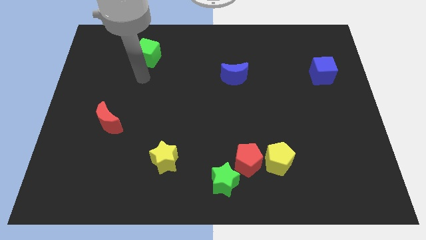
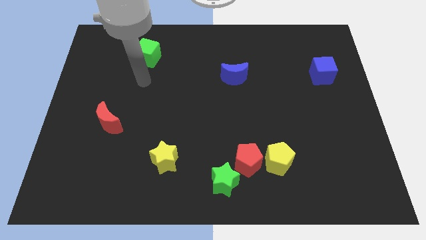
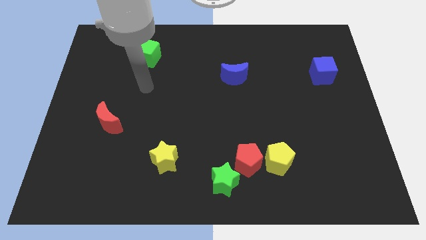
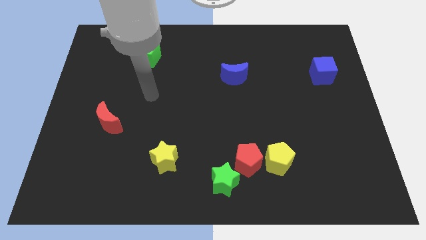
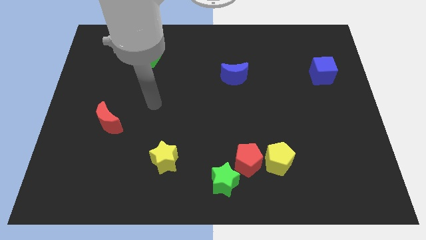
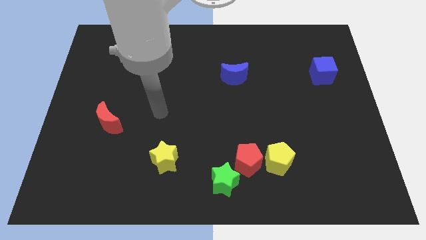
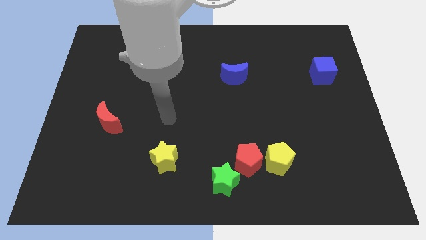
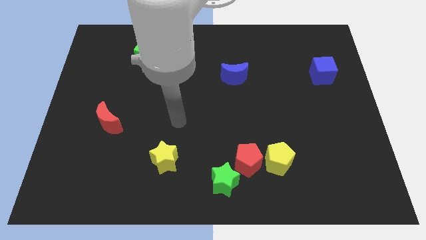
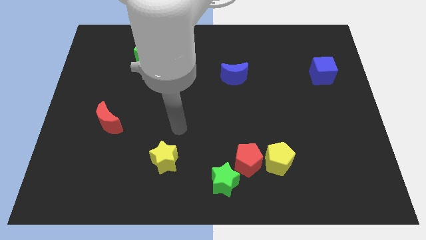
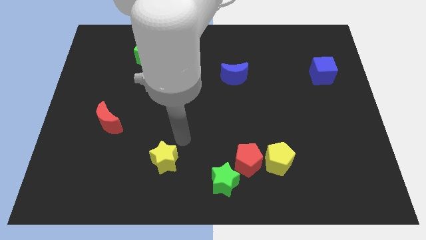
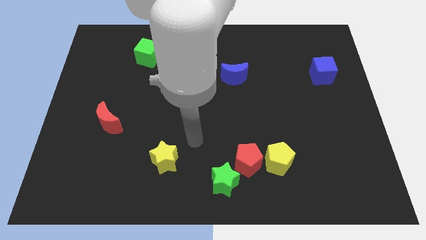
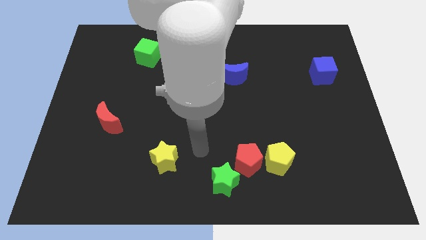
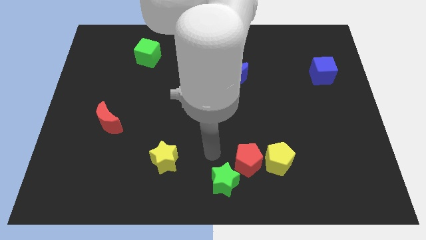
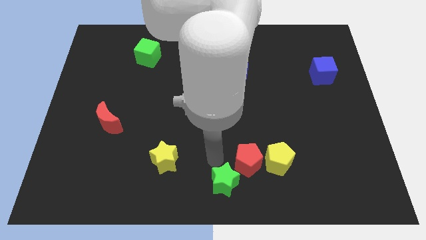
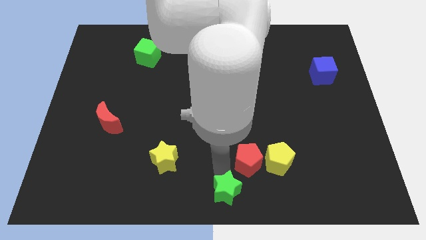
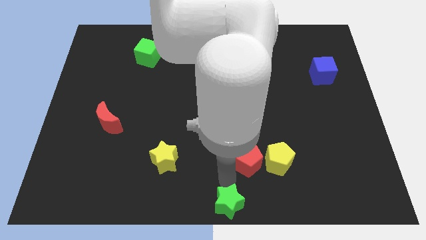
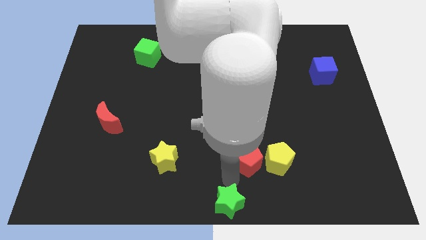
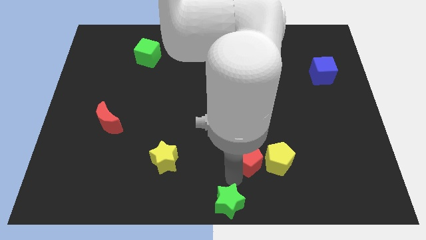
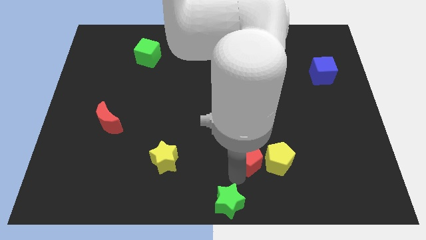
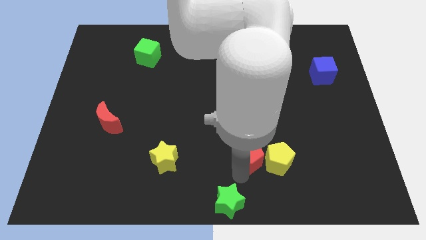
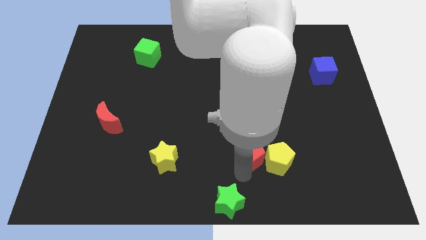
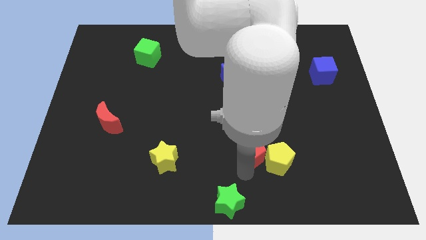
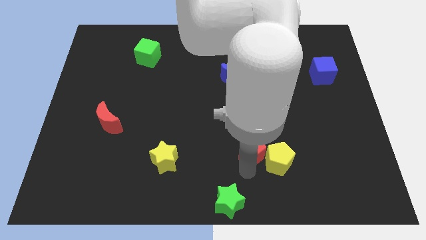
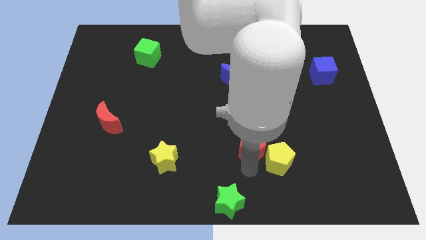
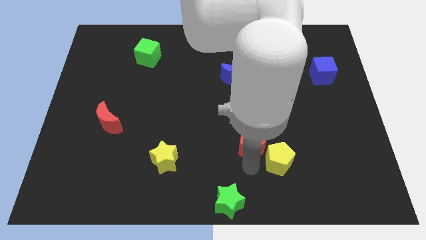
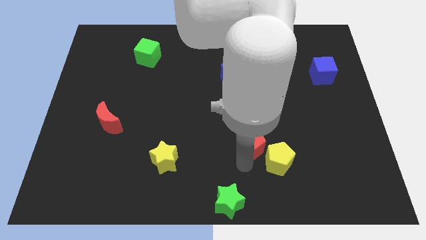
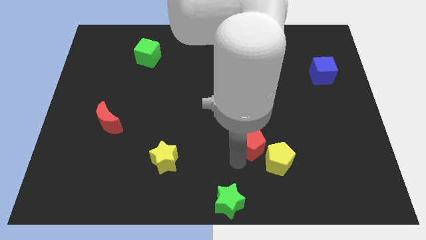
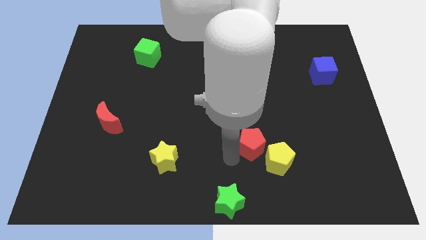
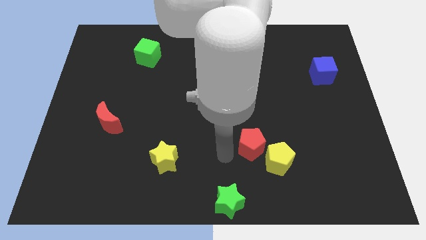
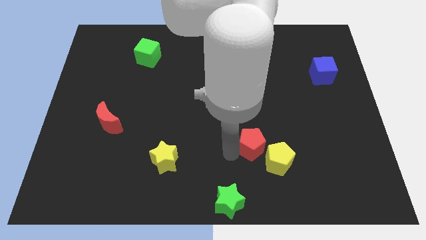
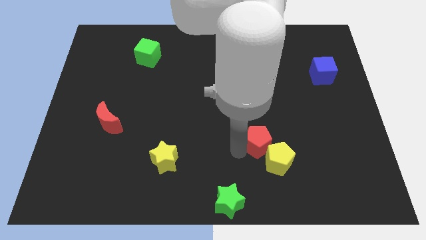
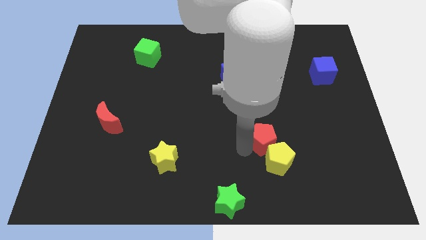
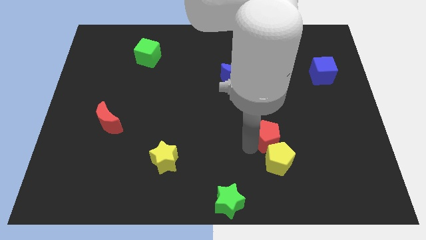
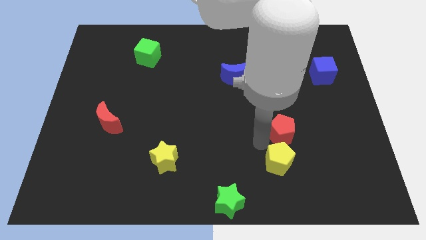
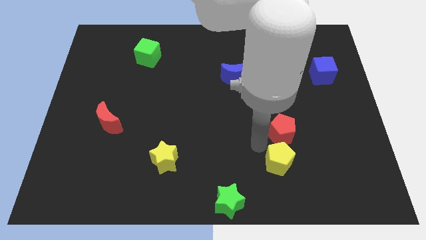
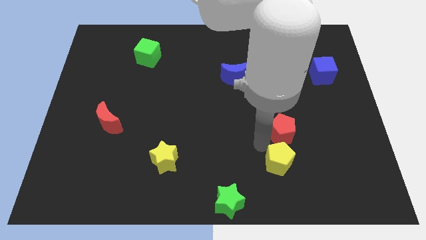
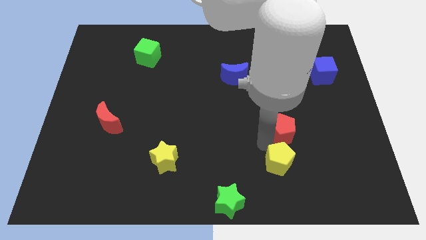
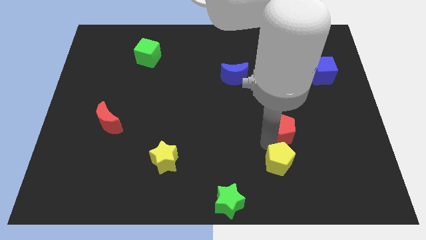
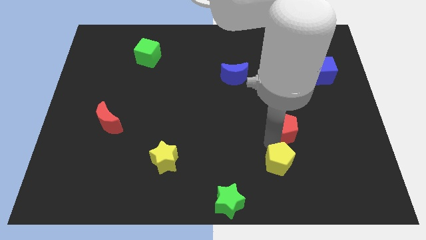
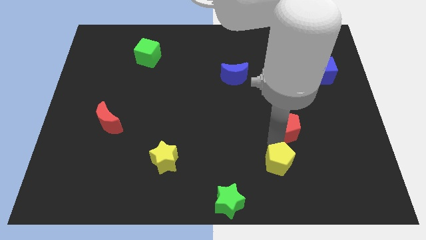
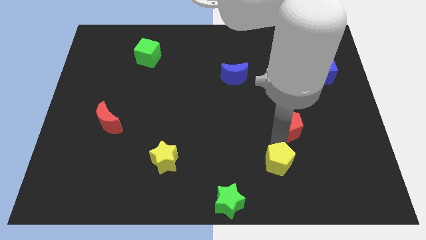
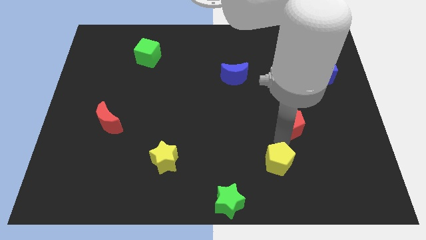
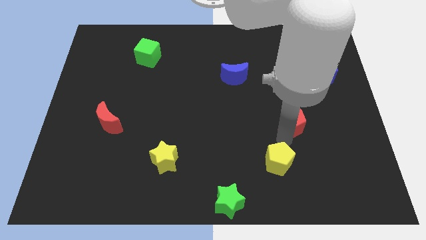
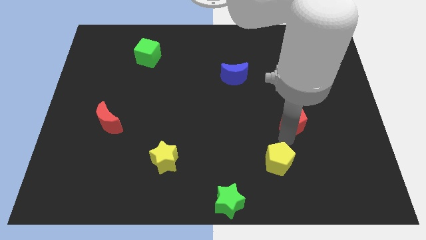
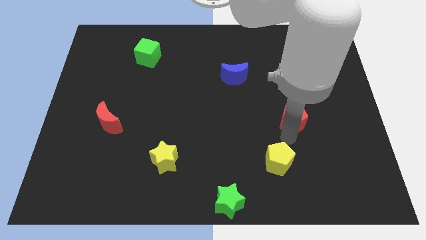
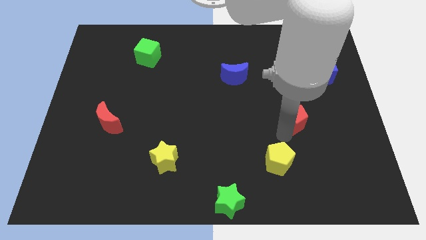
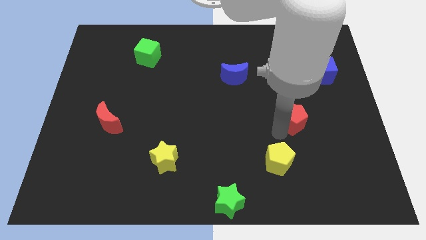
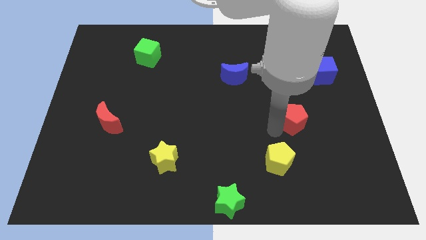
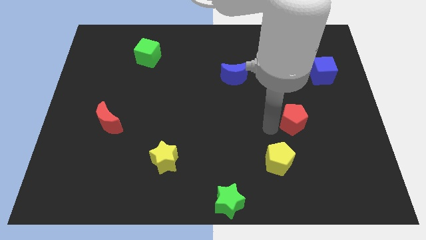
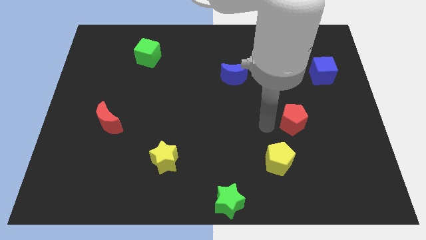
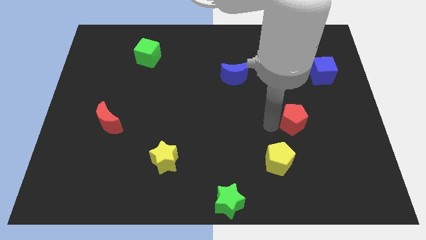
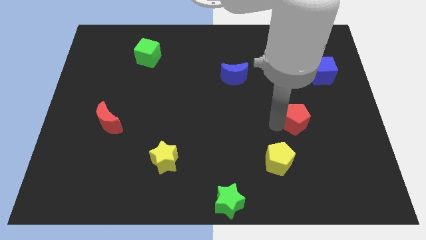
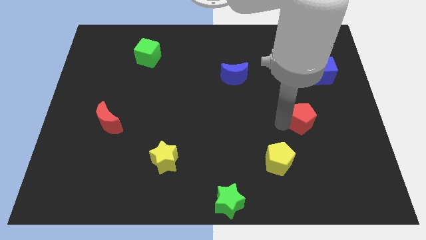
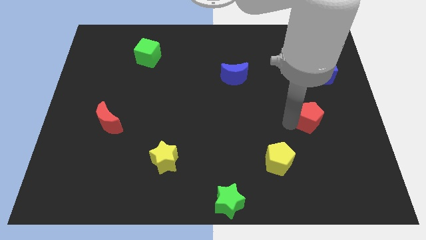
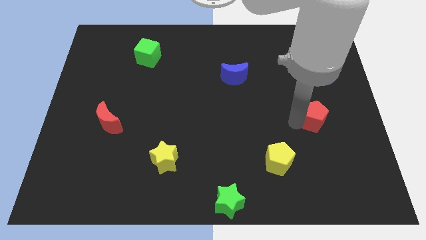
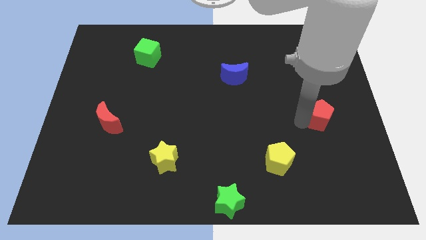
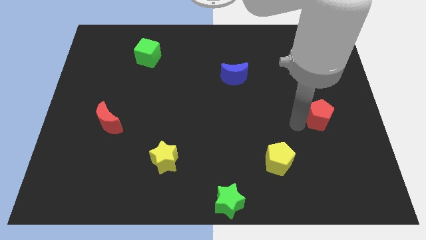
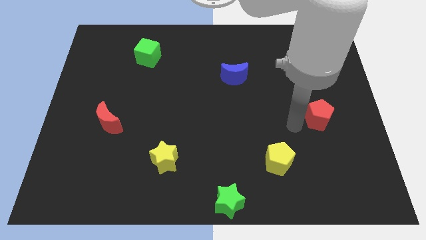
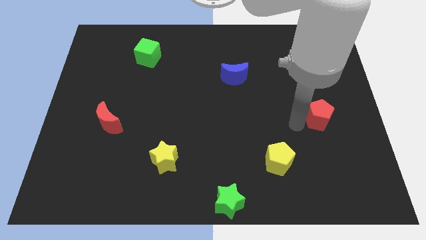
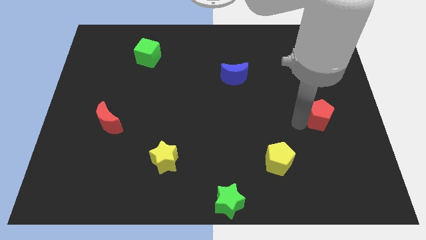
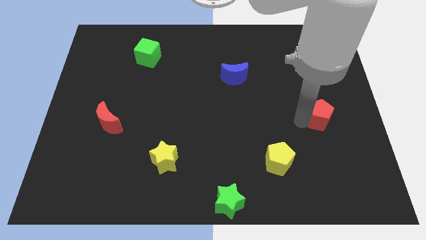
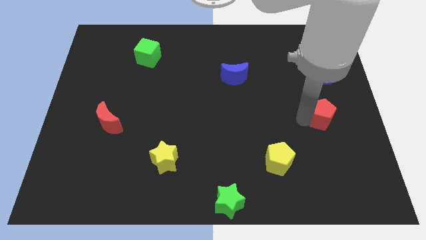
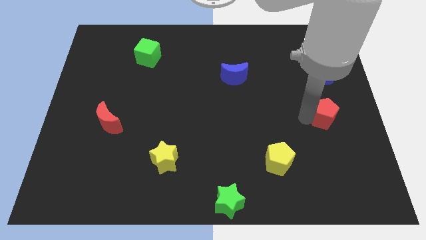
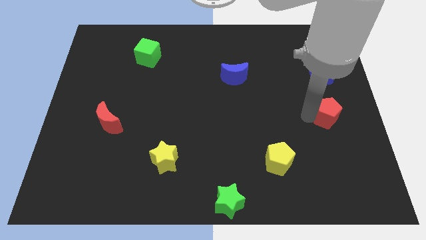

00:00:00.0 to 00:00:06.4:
put the red pentagon to the right side
